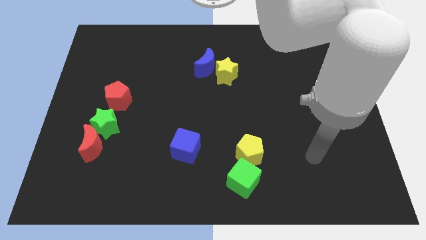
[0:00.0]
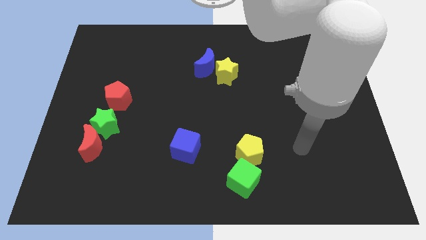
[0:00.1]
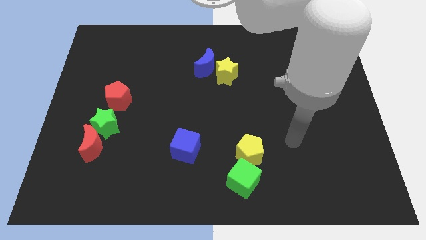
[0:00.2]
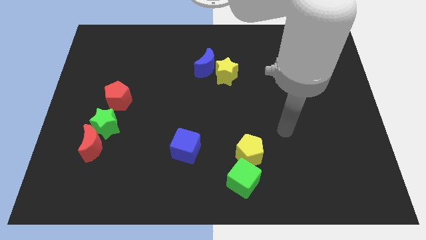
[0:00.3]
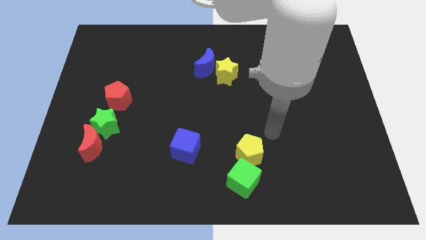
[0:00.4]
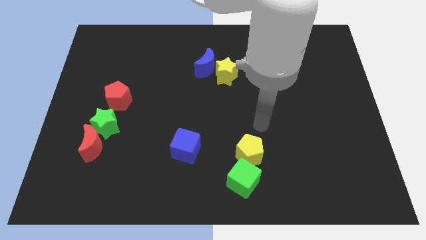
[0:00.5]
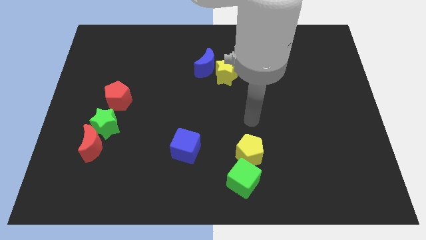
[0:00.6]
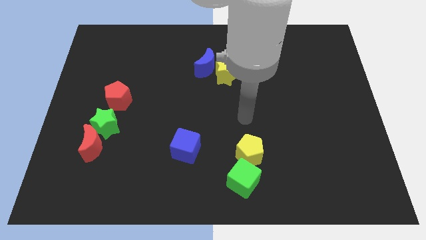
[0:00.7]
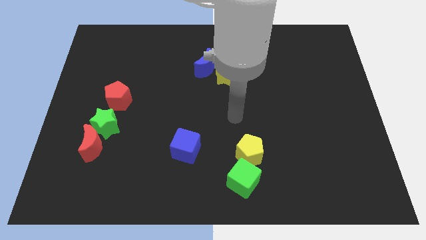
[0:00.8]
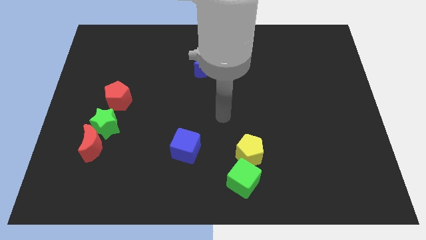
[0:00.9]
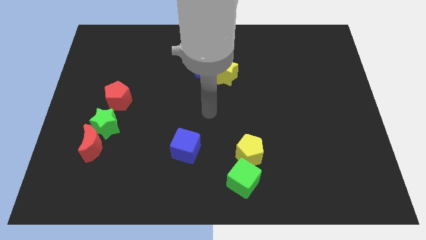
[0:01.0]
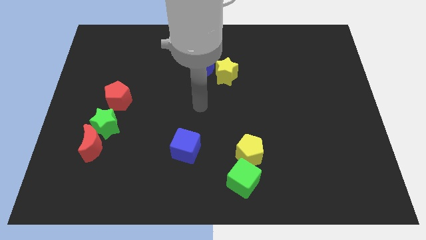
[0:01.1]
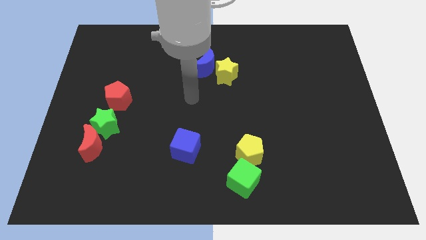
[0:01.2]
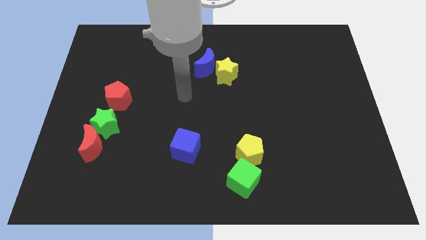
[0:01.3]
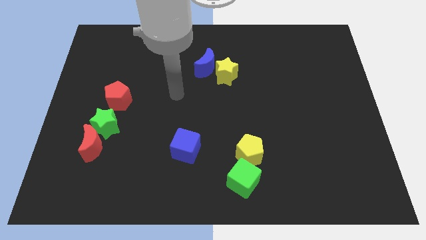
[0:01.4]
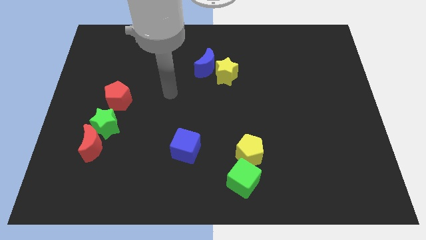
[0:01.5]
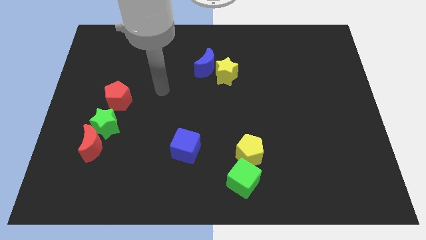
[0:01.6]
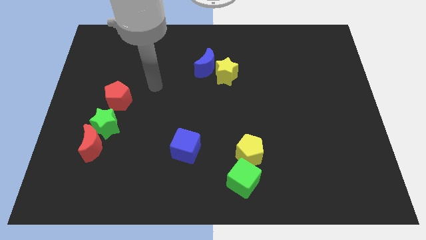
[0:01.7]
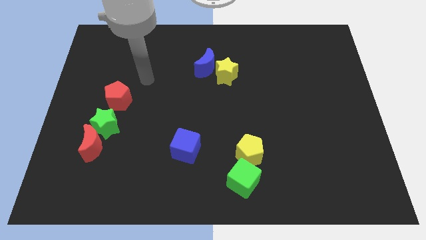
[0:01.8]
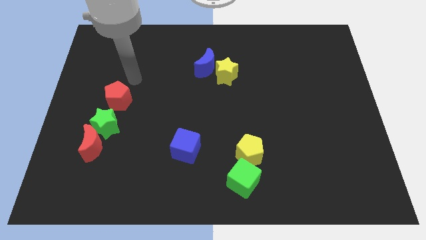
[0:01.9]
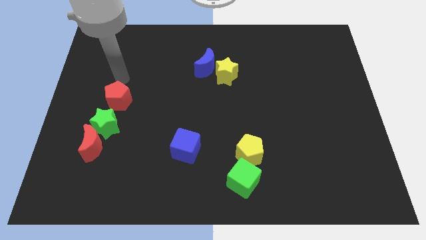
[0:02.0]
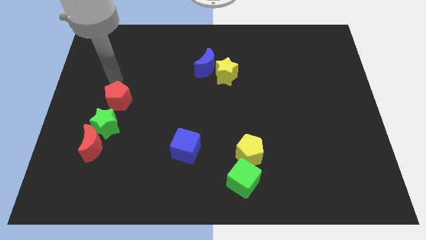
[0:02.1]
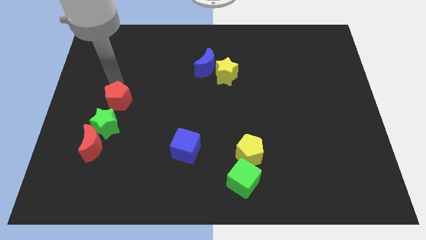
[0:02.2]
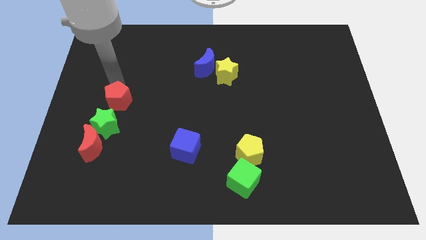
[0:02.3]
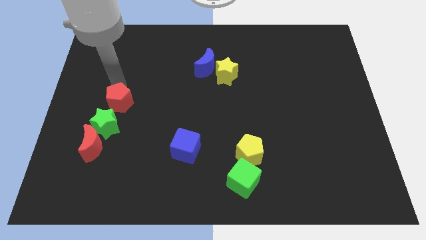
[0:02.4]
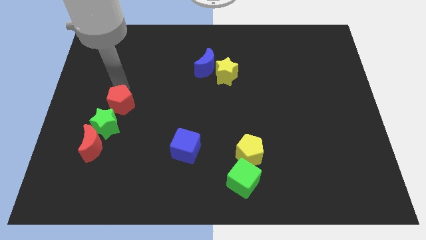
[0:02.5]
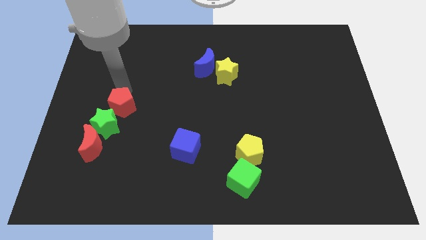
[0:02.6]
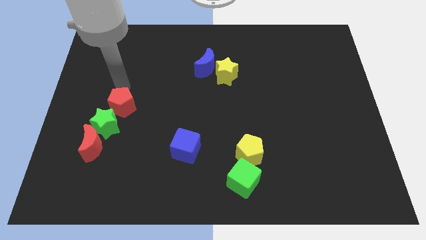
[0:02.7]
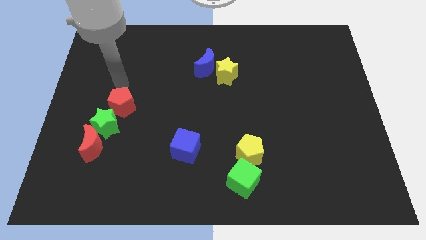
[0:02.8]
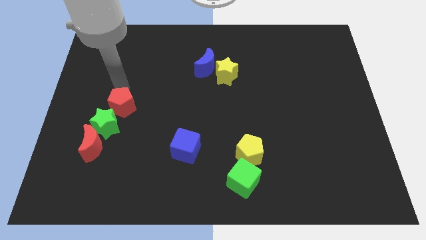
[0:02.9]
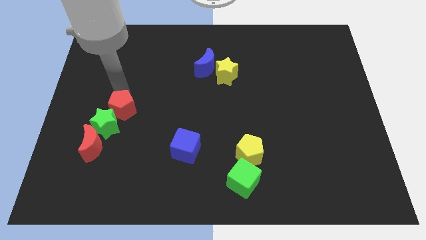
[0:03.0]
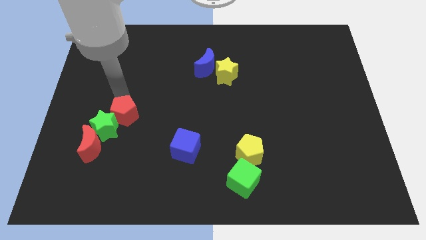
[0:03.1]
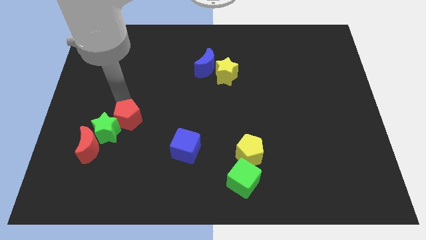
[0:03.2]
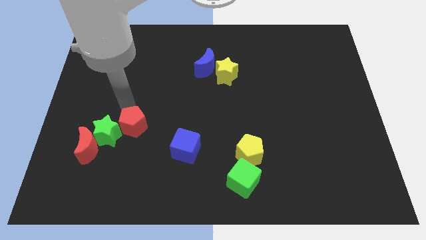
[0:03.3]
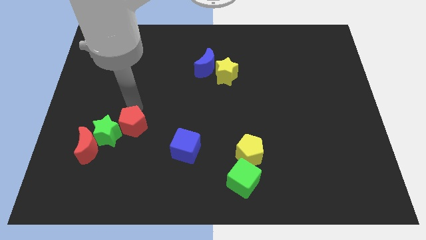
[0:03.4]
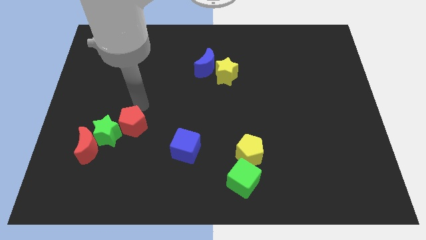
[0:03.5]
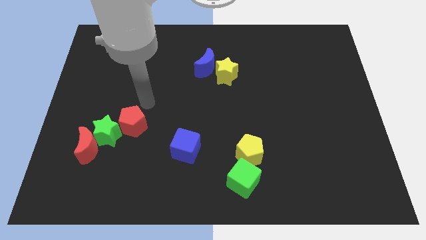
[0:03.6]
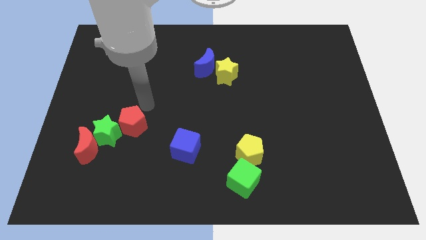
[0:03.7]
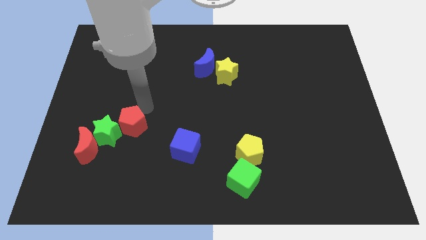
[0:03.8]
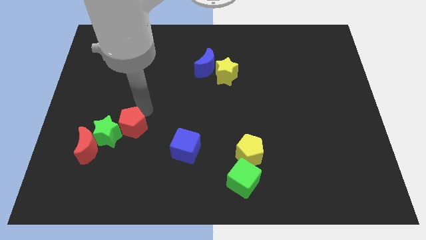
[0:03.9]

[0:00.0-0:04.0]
push the red pentagon slightly down

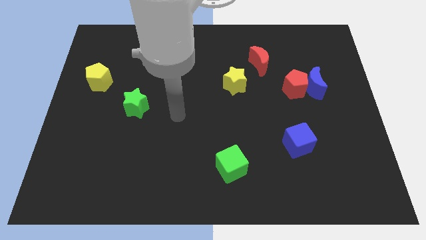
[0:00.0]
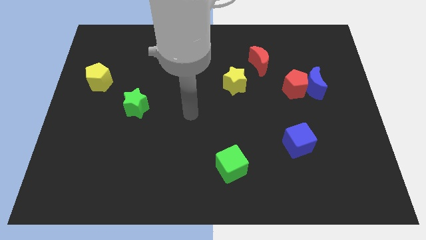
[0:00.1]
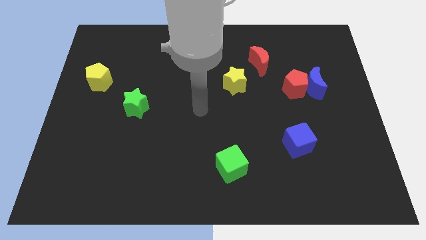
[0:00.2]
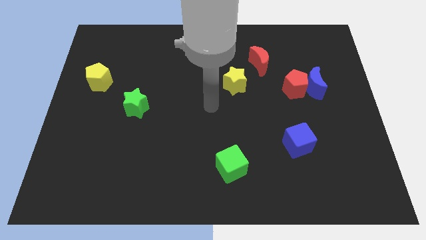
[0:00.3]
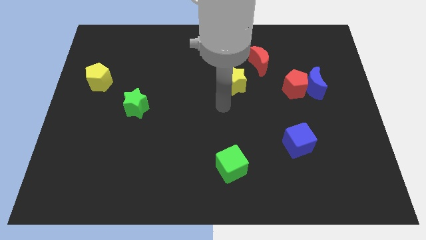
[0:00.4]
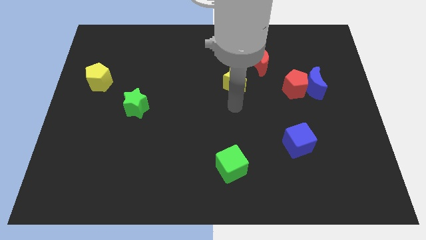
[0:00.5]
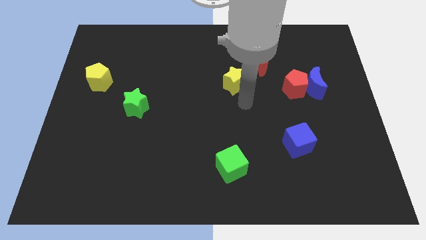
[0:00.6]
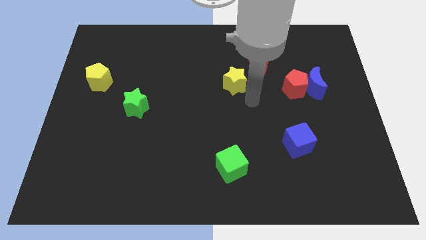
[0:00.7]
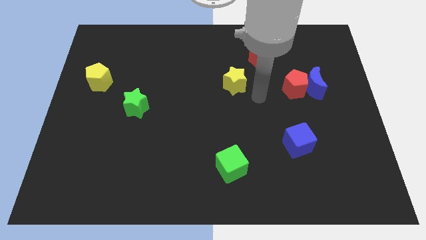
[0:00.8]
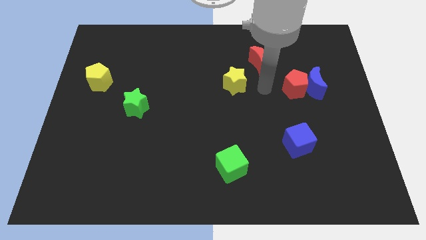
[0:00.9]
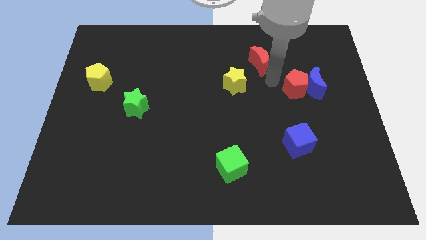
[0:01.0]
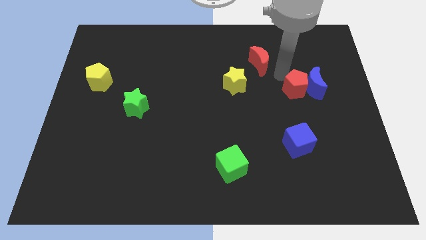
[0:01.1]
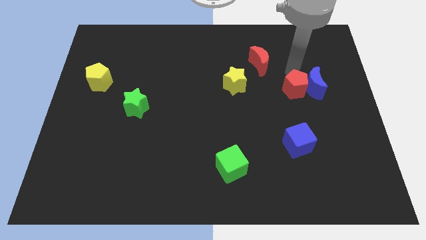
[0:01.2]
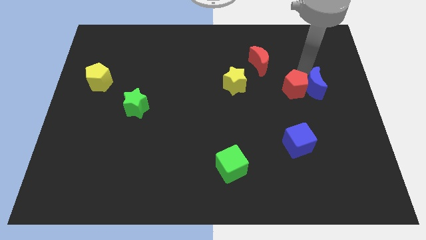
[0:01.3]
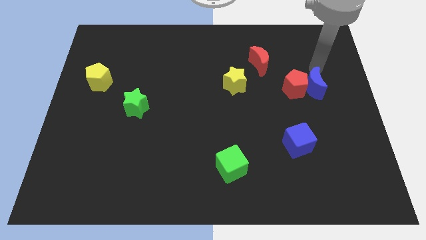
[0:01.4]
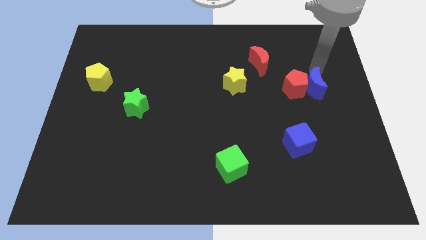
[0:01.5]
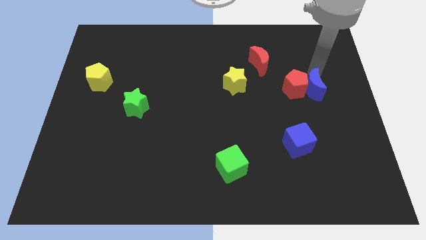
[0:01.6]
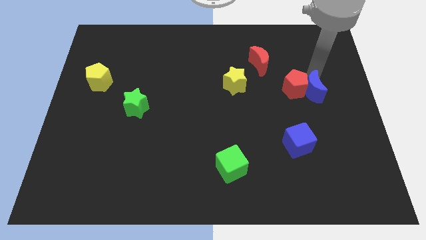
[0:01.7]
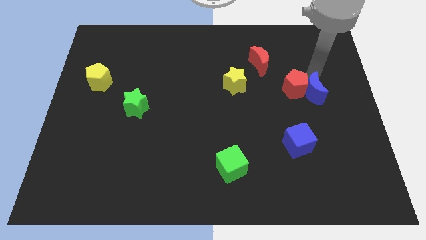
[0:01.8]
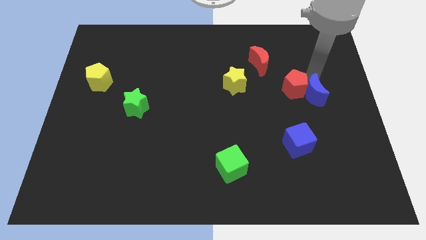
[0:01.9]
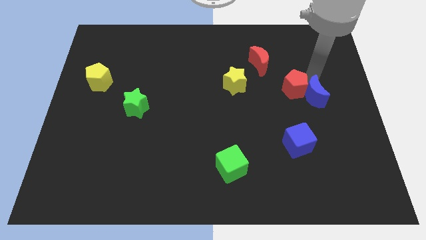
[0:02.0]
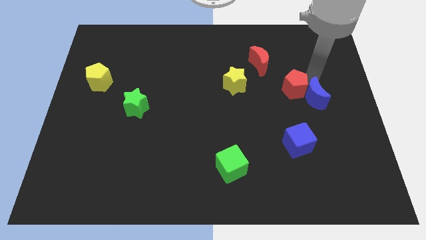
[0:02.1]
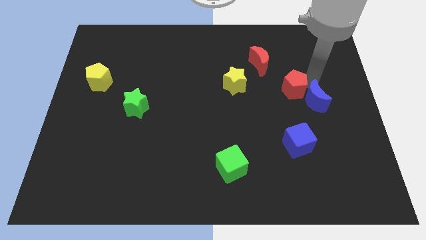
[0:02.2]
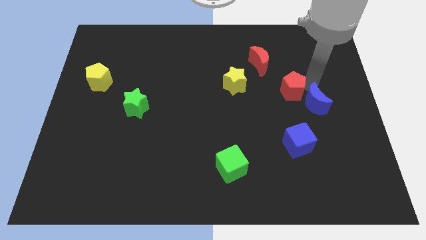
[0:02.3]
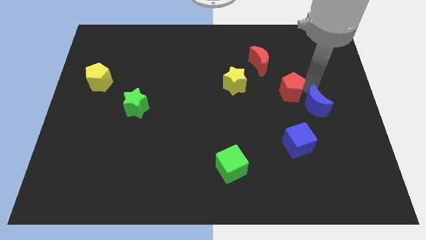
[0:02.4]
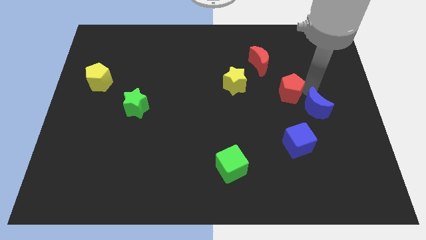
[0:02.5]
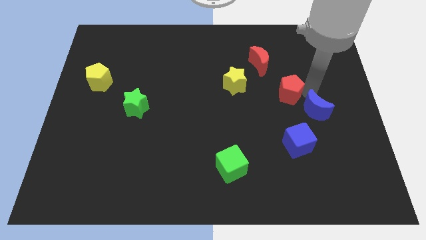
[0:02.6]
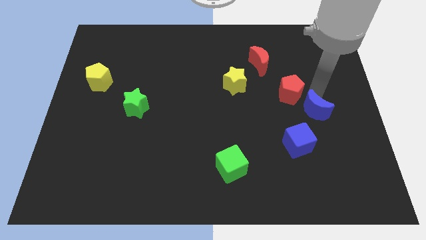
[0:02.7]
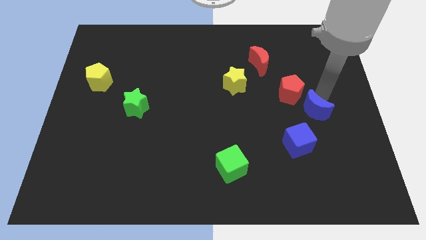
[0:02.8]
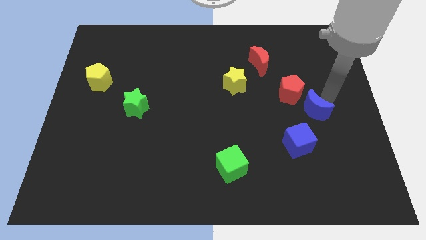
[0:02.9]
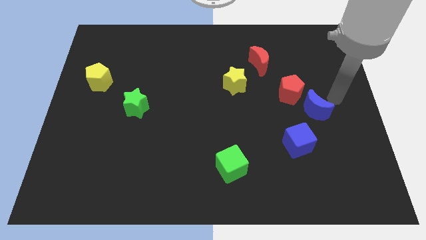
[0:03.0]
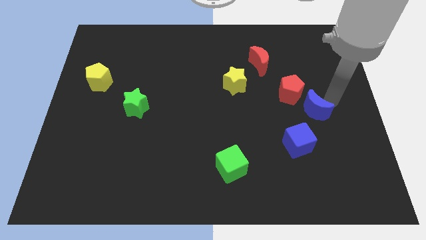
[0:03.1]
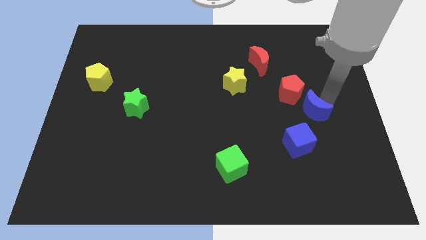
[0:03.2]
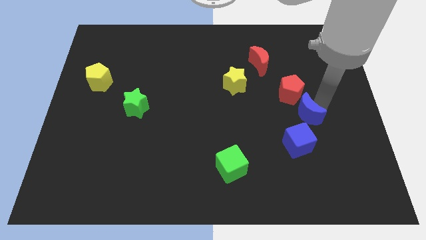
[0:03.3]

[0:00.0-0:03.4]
slide the blue moon down and to the left slightly

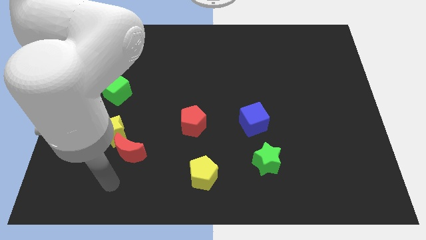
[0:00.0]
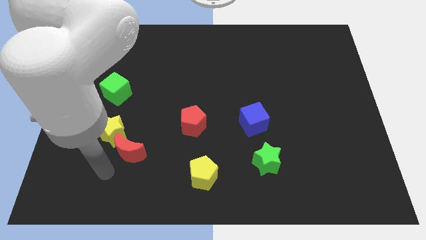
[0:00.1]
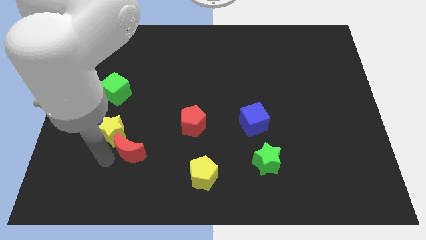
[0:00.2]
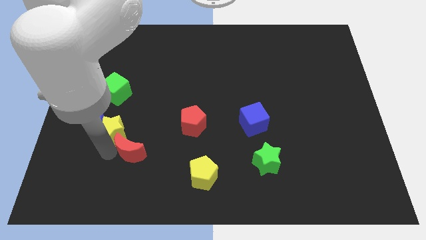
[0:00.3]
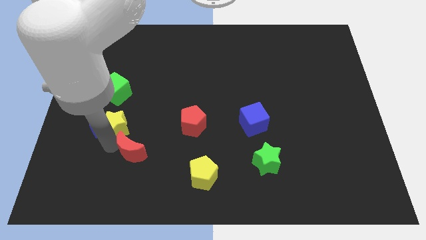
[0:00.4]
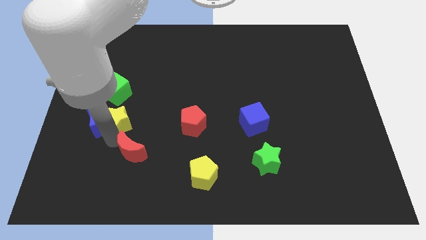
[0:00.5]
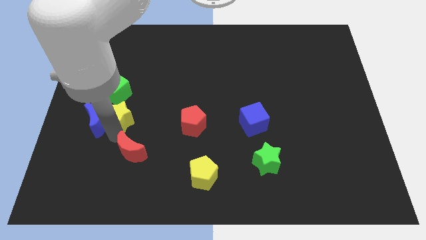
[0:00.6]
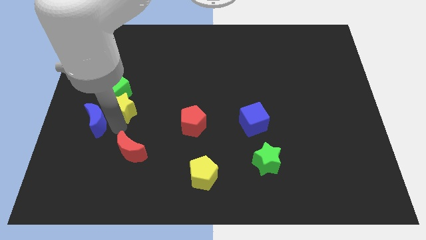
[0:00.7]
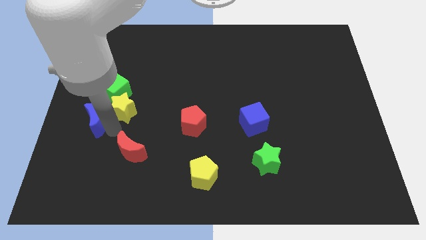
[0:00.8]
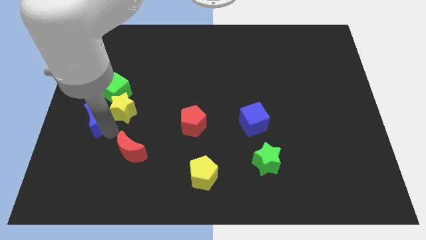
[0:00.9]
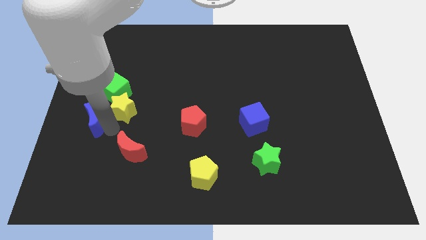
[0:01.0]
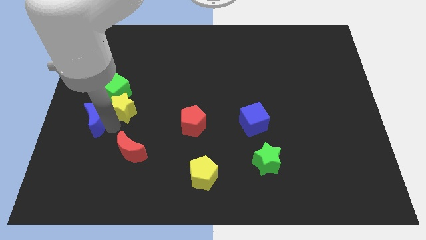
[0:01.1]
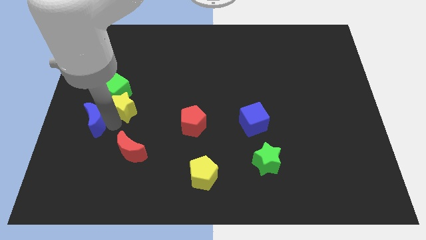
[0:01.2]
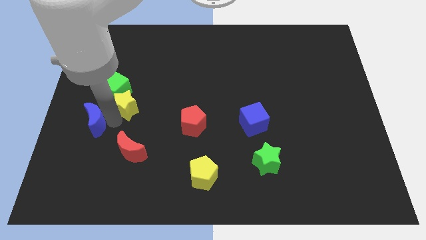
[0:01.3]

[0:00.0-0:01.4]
slide the yellow star upwards slightly
